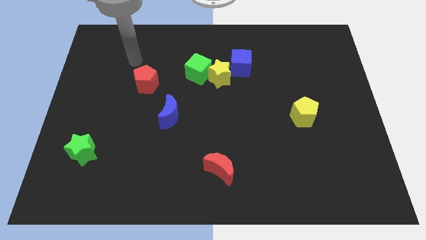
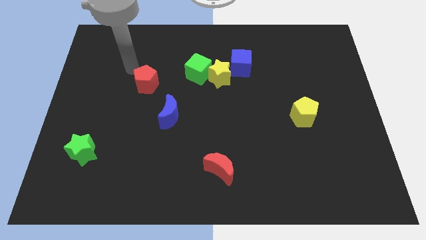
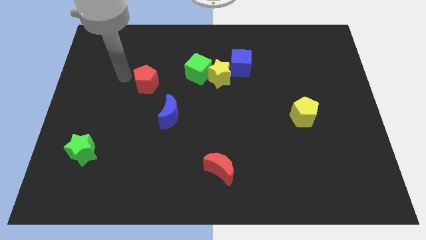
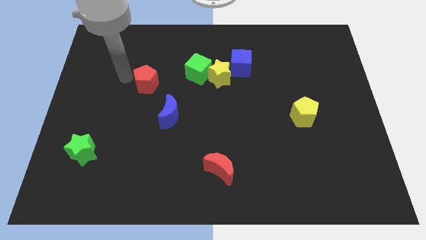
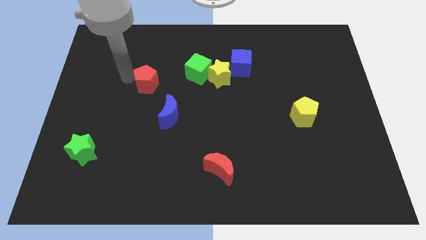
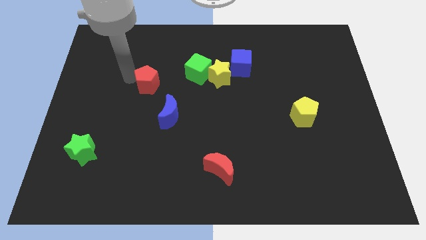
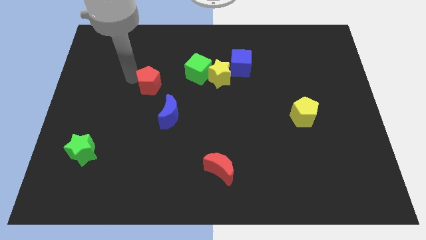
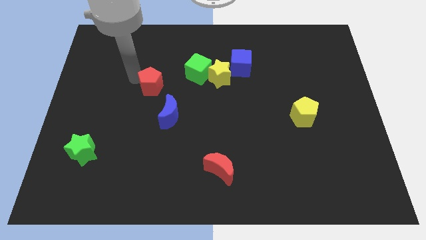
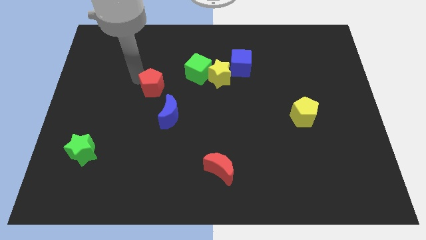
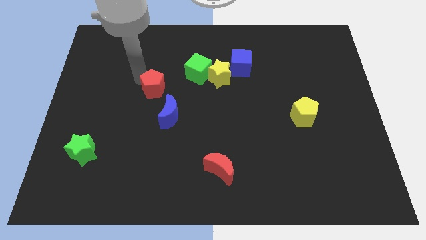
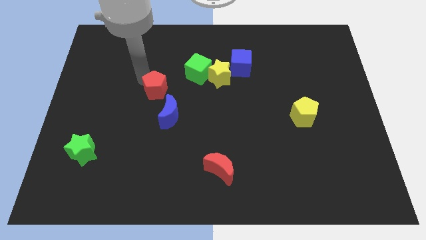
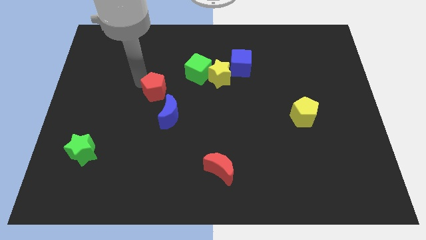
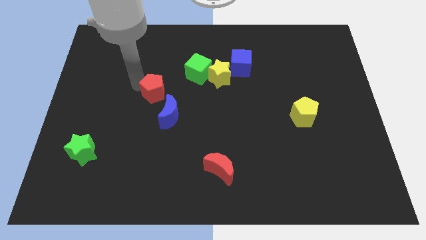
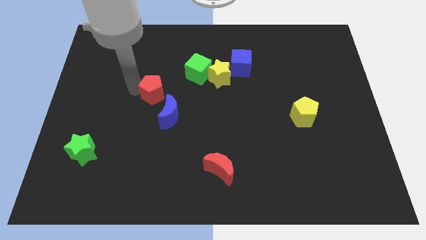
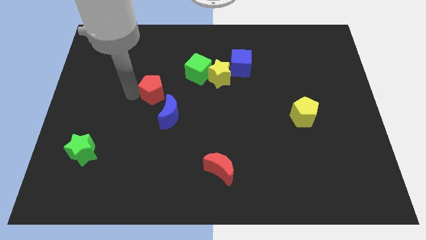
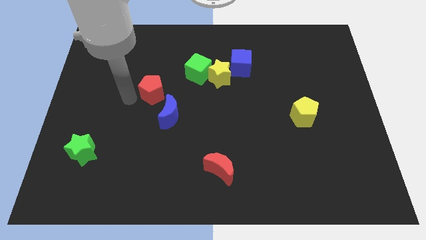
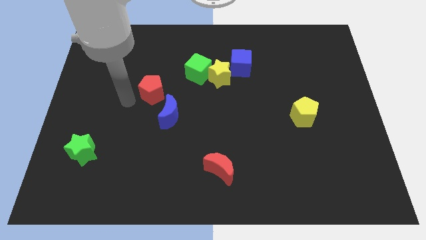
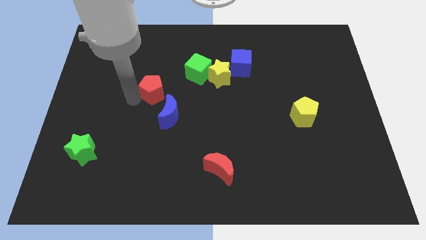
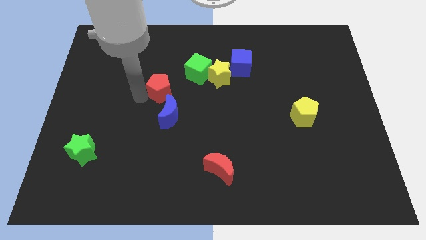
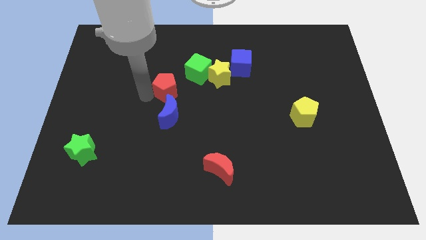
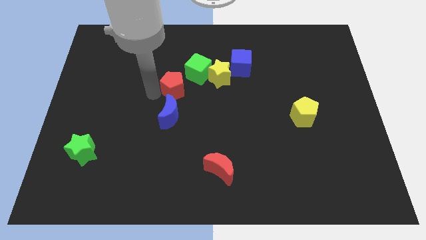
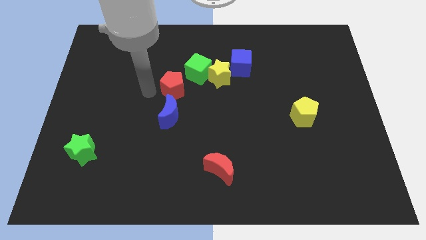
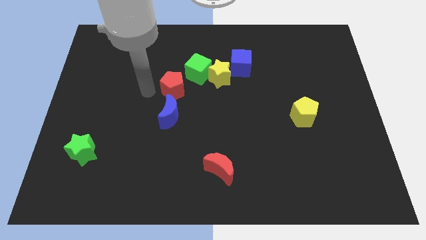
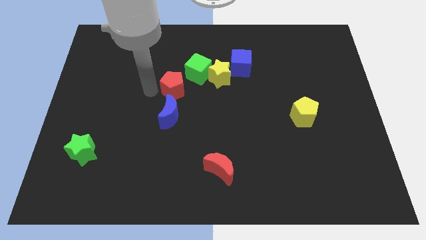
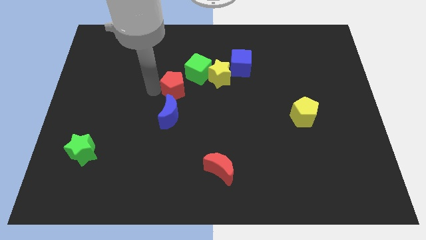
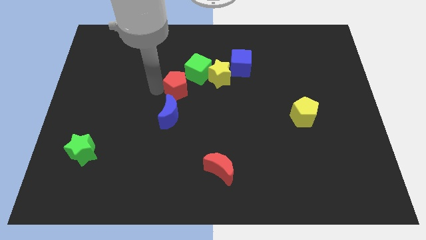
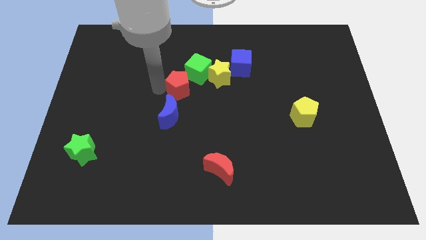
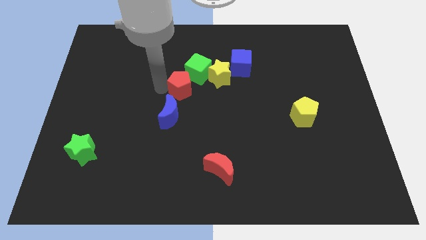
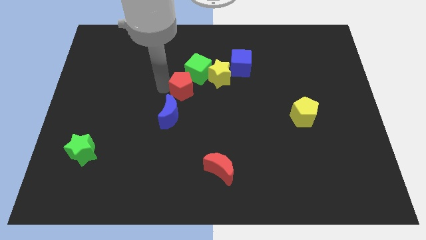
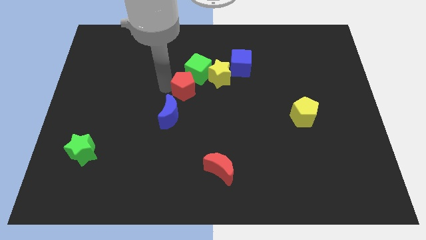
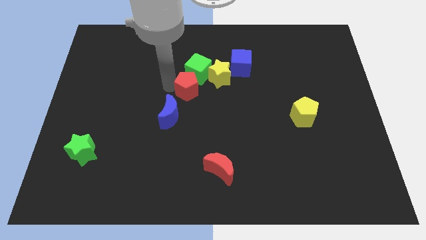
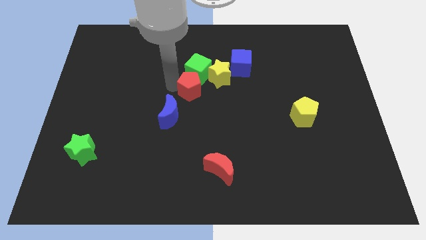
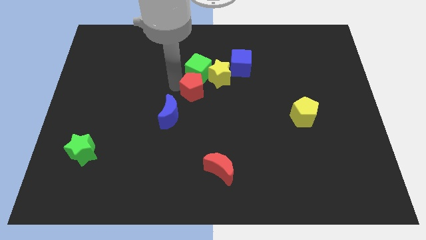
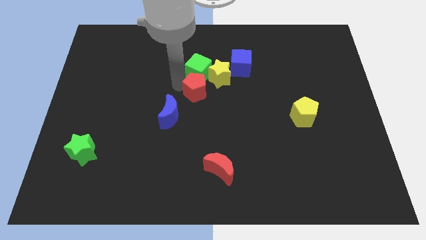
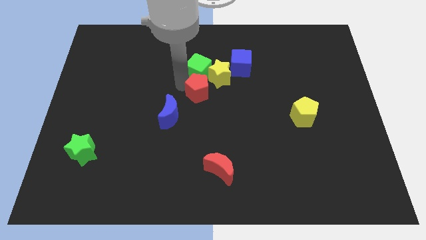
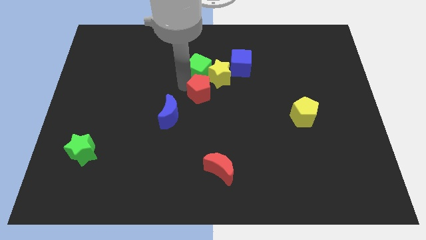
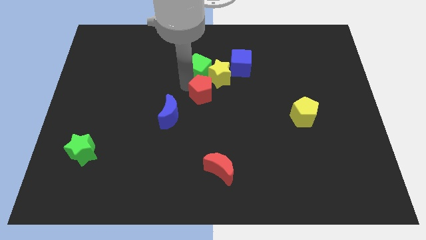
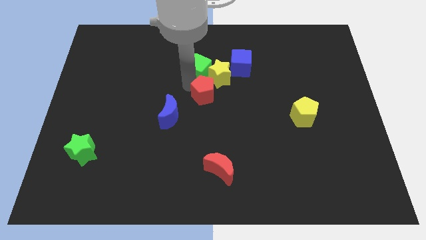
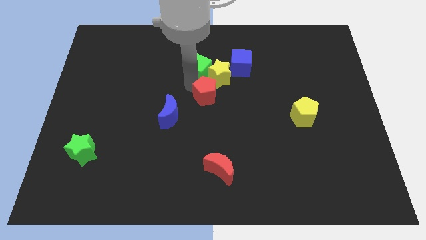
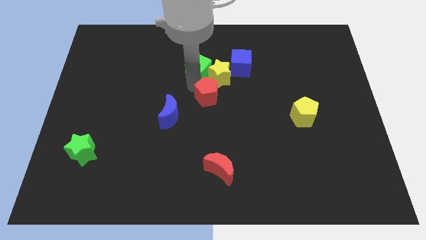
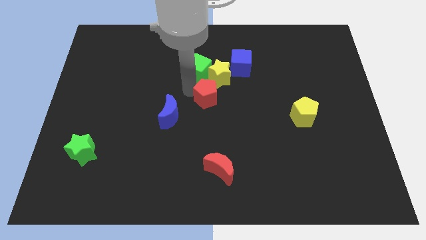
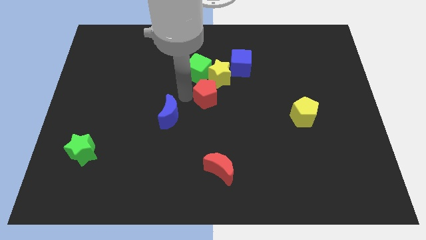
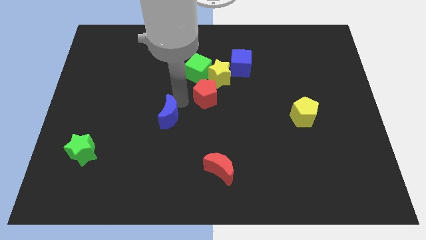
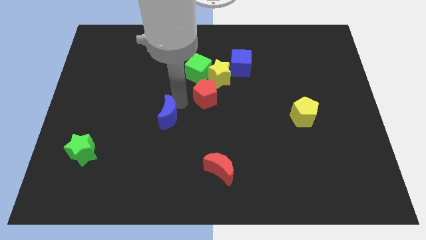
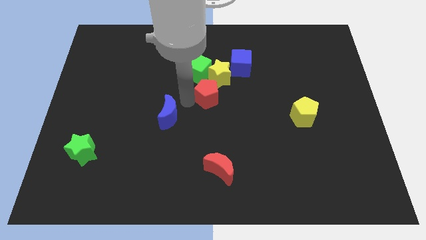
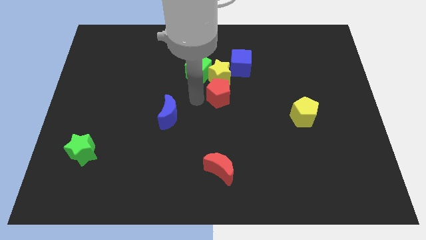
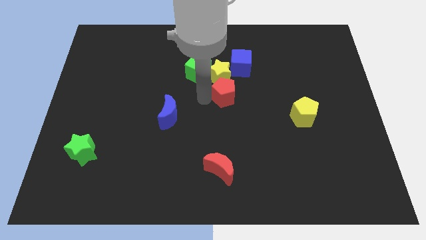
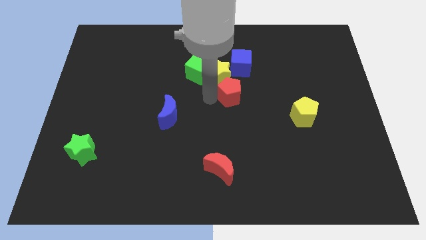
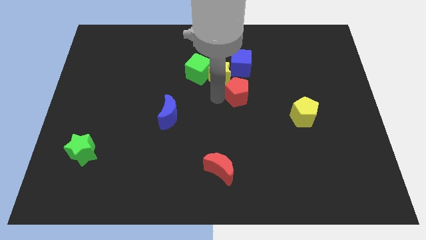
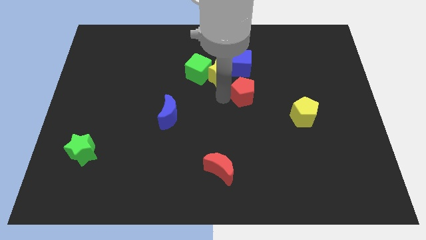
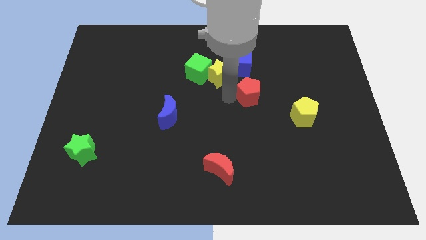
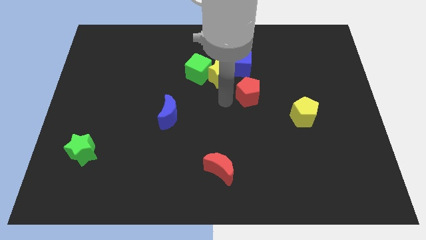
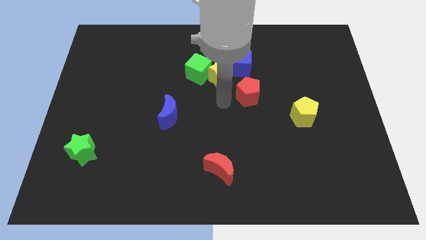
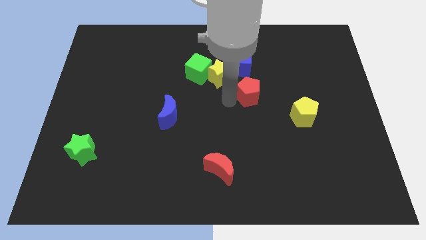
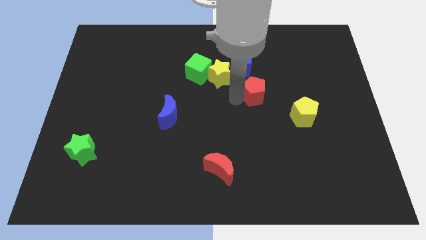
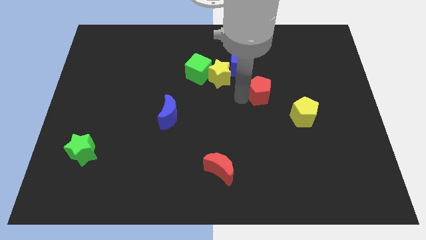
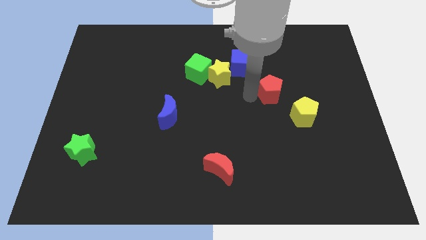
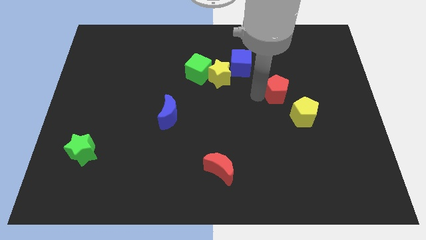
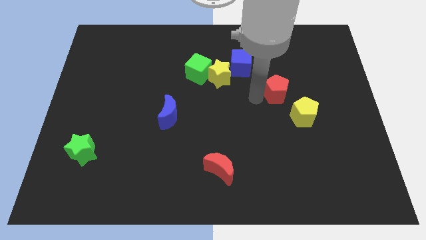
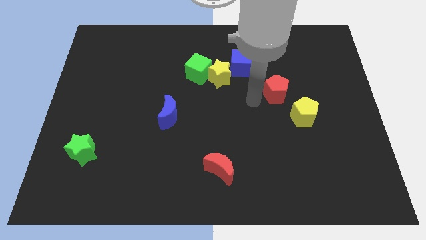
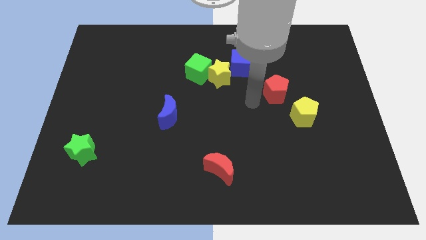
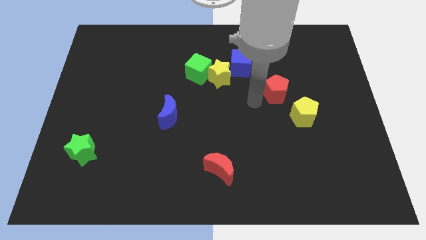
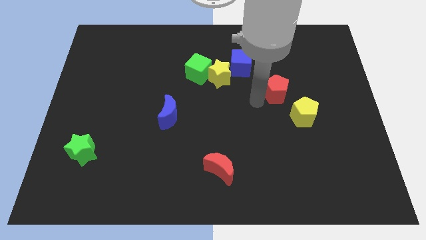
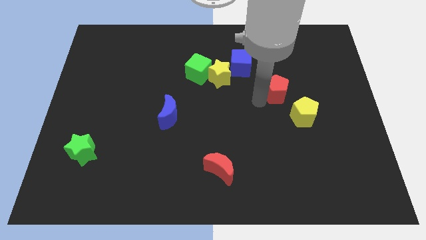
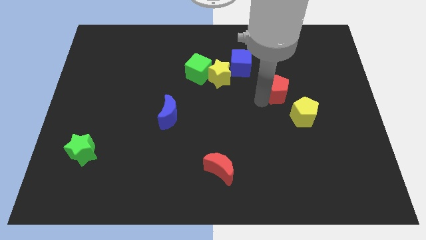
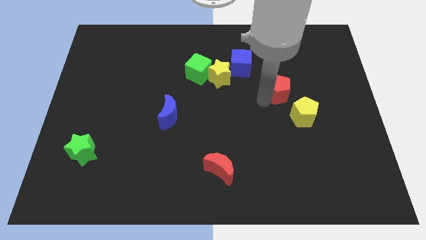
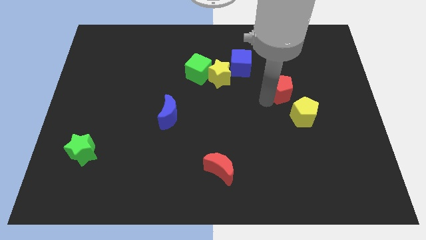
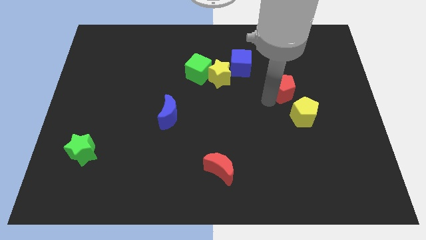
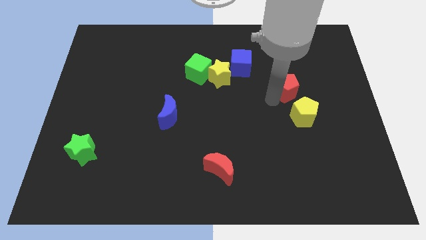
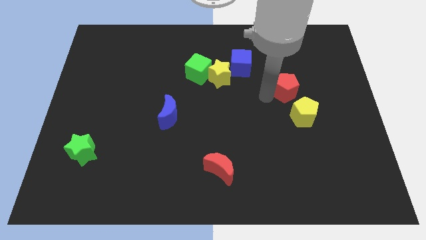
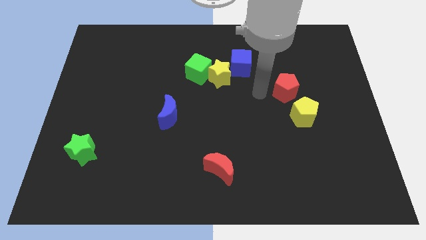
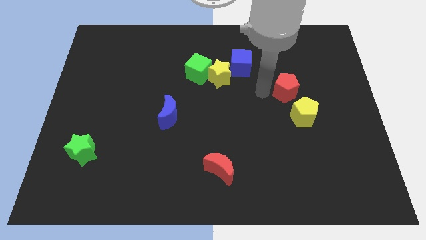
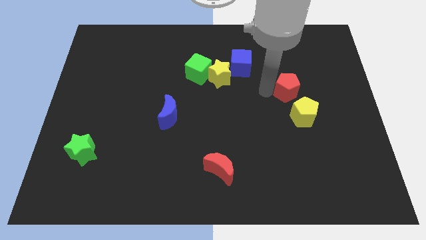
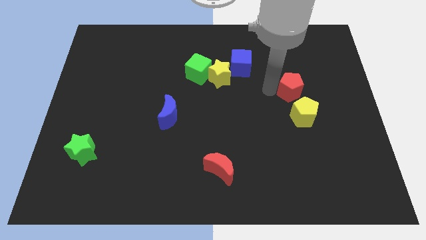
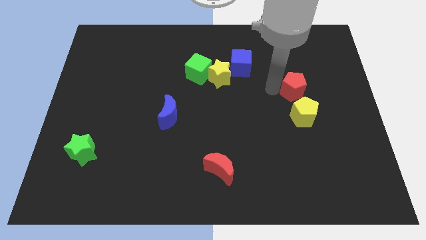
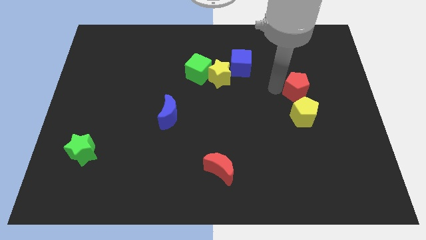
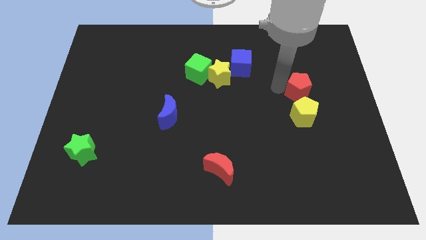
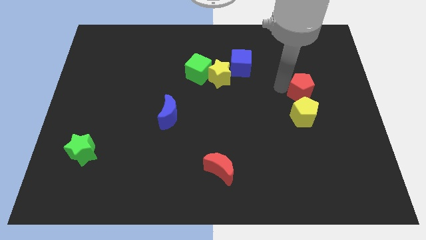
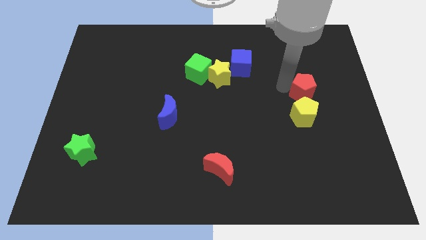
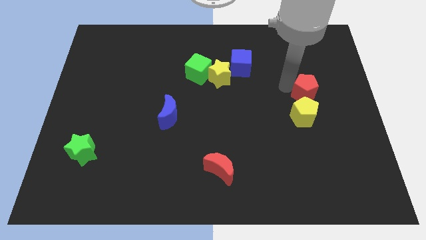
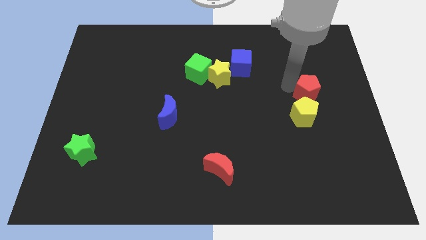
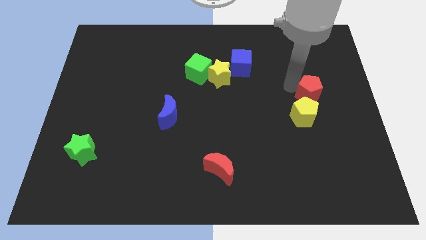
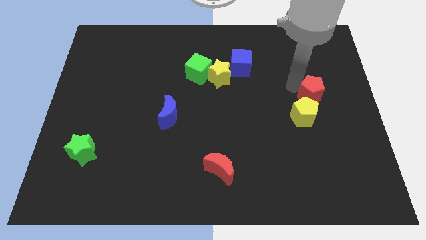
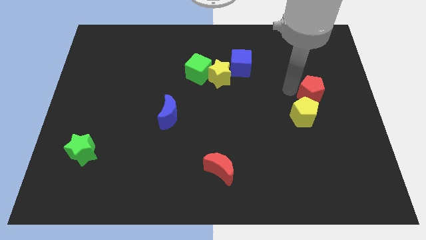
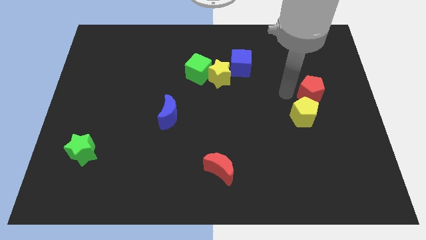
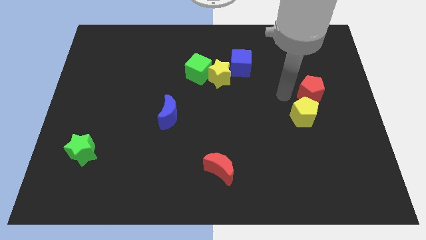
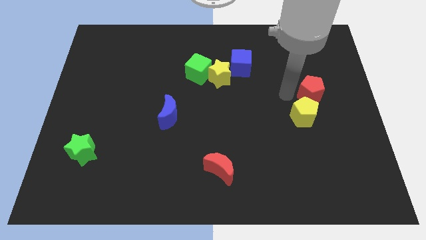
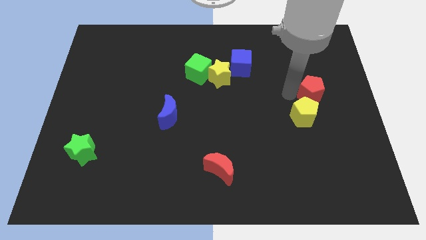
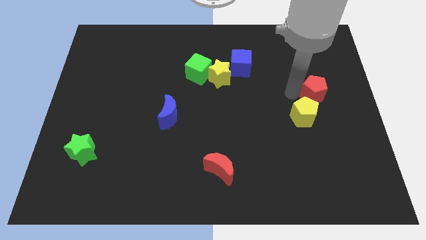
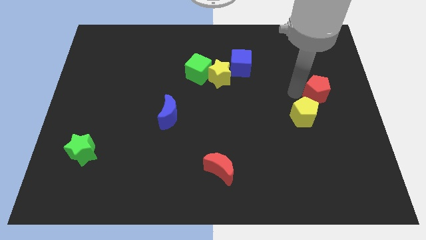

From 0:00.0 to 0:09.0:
slide the red pentagon to the right side of the board
